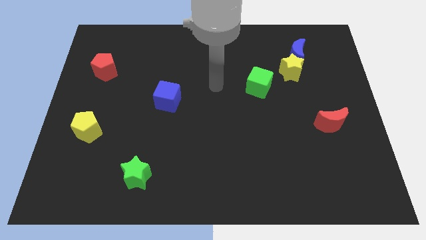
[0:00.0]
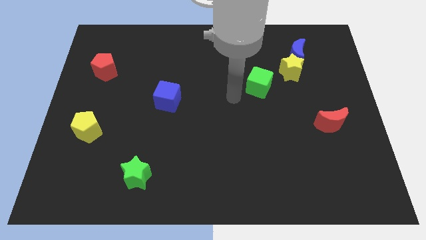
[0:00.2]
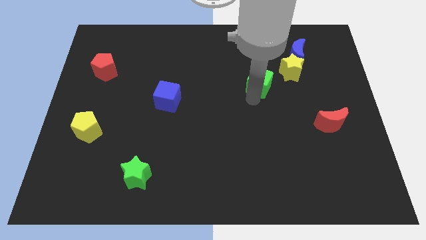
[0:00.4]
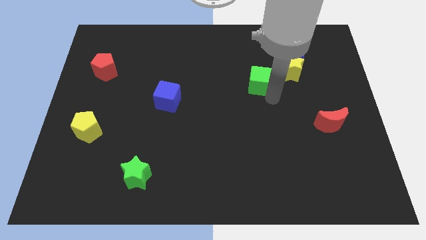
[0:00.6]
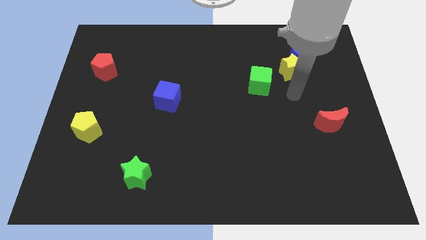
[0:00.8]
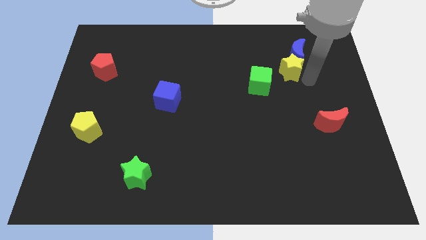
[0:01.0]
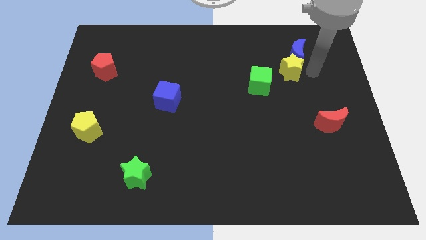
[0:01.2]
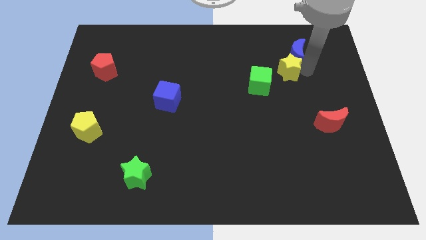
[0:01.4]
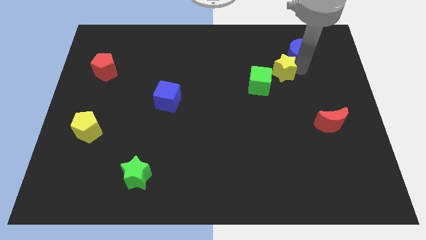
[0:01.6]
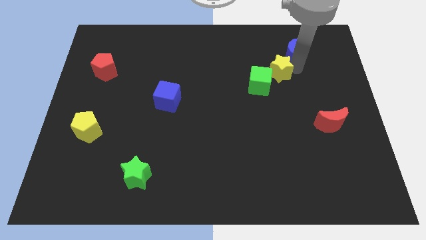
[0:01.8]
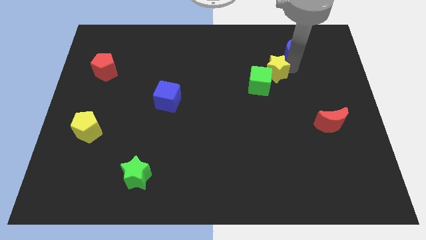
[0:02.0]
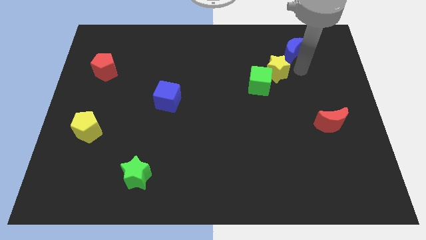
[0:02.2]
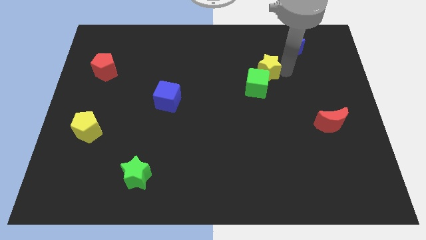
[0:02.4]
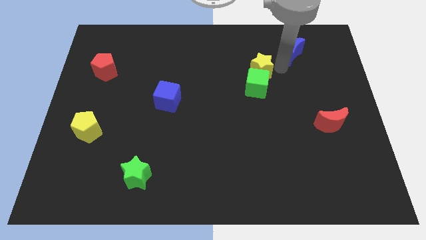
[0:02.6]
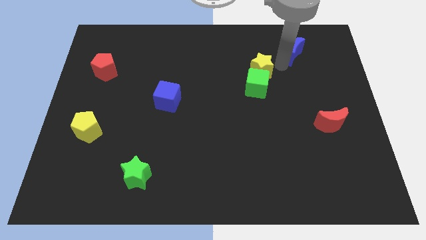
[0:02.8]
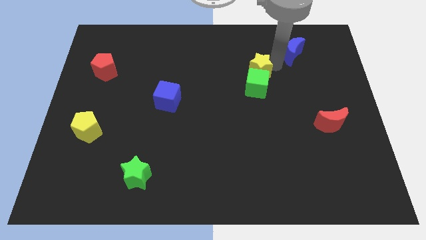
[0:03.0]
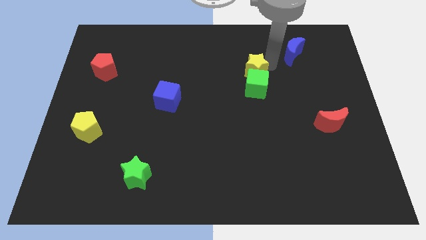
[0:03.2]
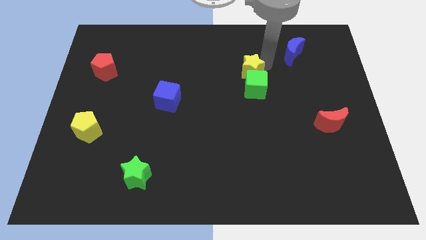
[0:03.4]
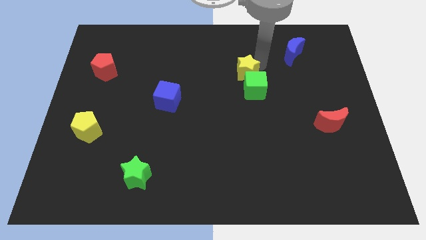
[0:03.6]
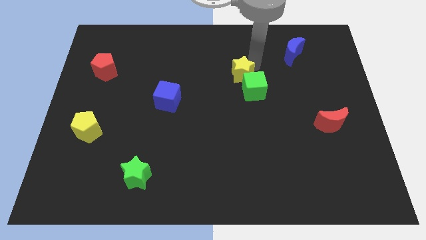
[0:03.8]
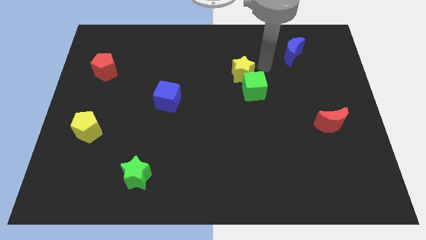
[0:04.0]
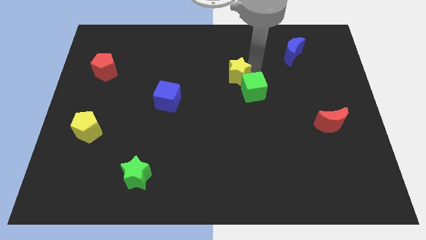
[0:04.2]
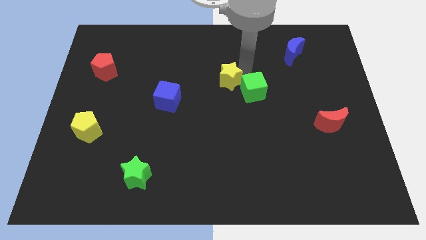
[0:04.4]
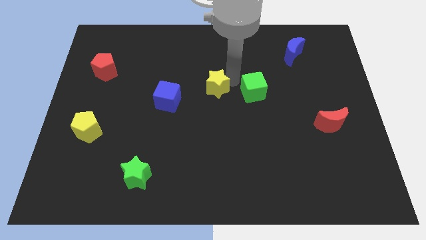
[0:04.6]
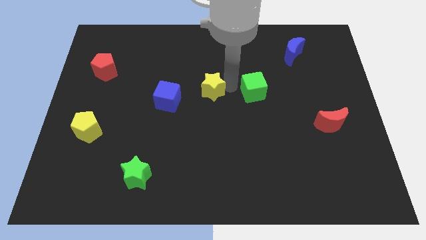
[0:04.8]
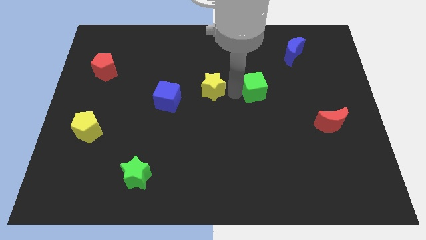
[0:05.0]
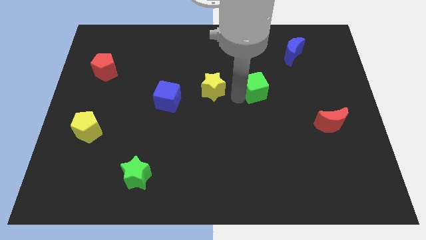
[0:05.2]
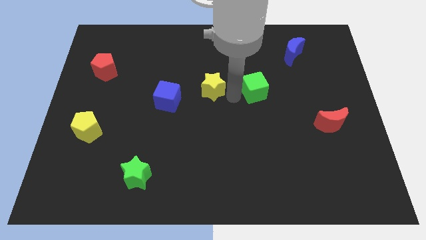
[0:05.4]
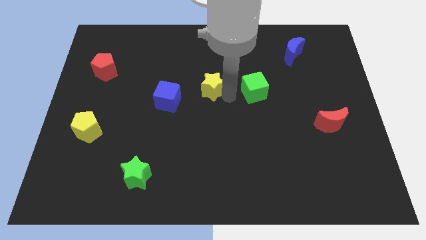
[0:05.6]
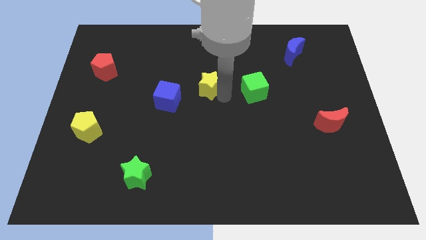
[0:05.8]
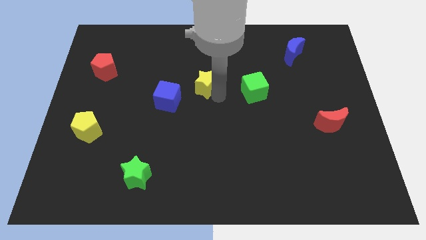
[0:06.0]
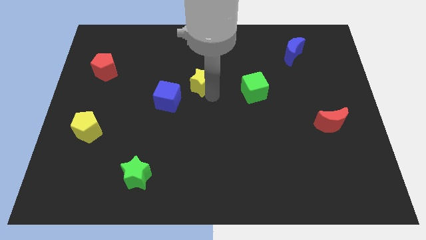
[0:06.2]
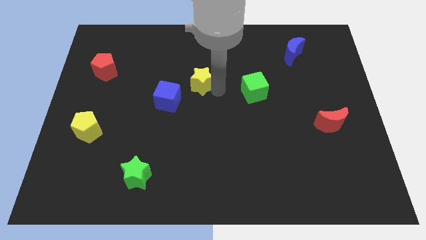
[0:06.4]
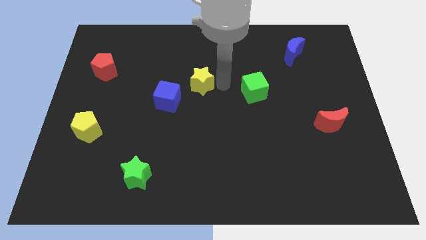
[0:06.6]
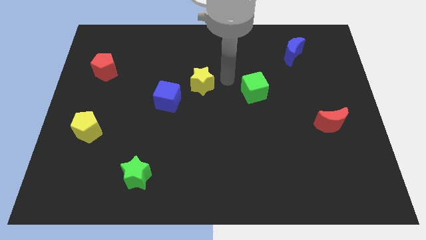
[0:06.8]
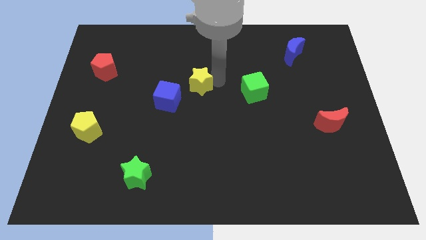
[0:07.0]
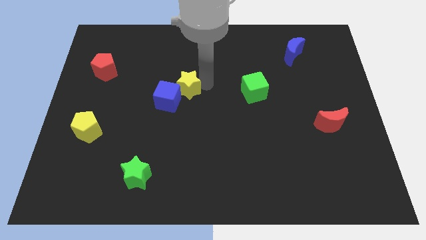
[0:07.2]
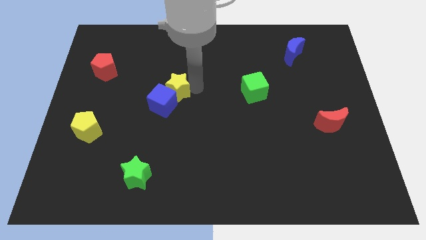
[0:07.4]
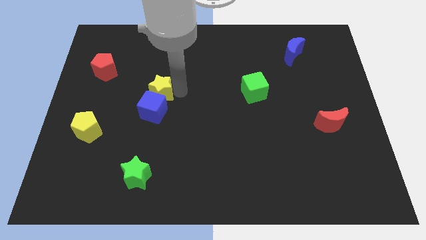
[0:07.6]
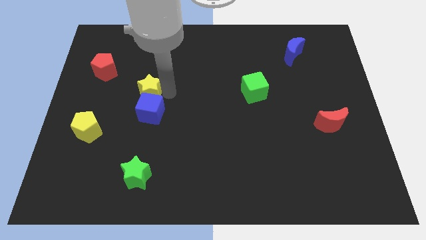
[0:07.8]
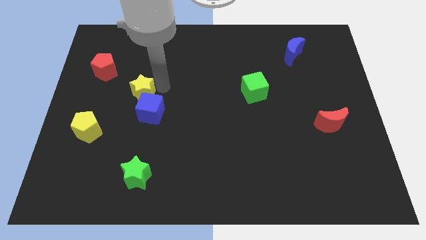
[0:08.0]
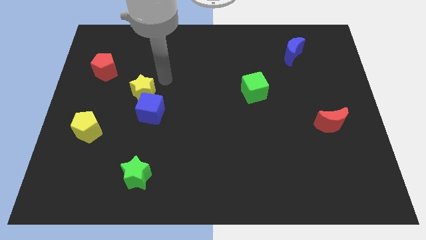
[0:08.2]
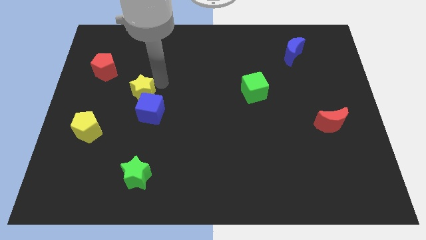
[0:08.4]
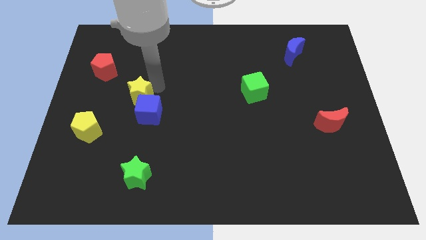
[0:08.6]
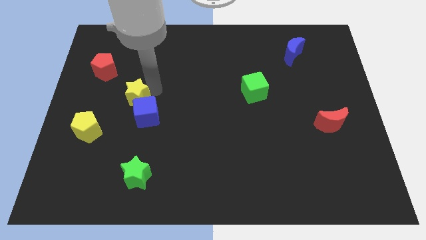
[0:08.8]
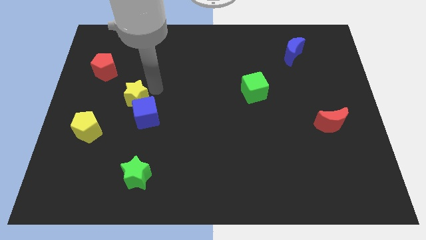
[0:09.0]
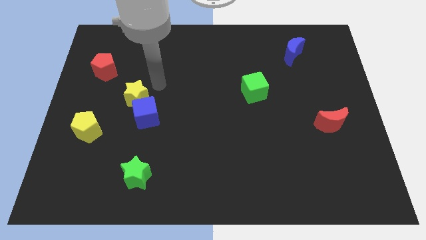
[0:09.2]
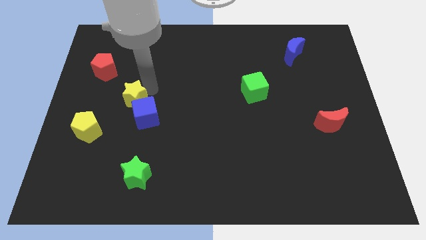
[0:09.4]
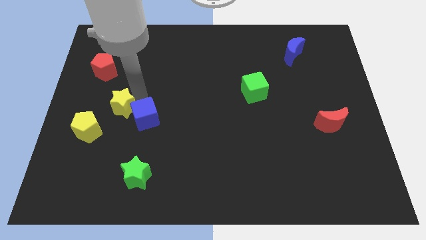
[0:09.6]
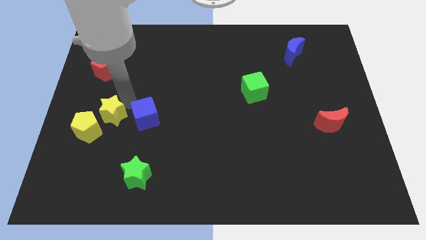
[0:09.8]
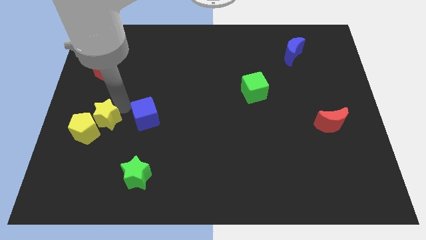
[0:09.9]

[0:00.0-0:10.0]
put the yellow star towards the yellow pentagon

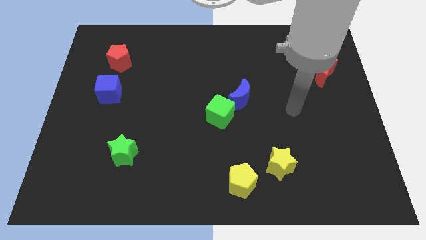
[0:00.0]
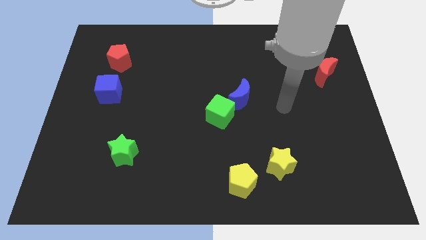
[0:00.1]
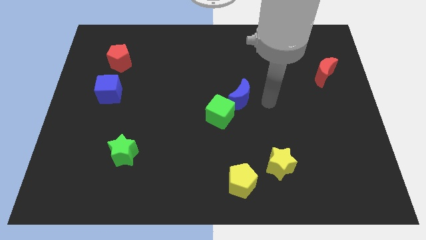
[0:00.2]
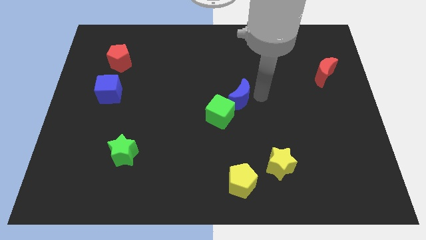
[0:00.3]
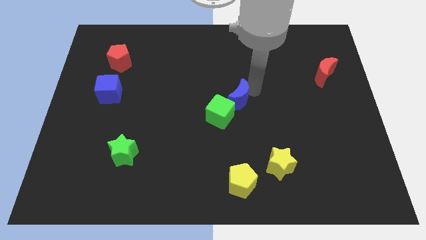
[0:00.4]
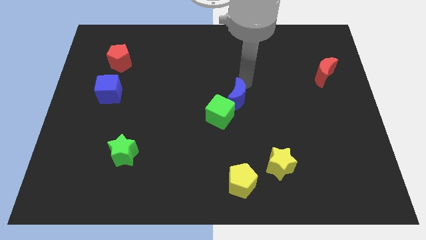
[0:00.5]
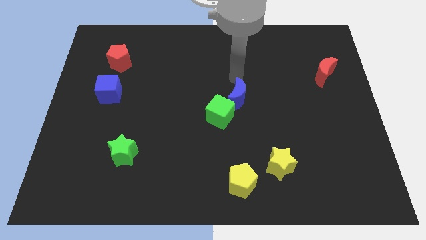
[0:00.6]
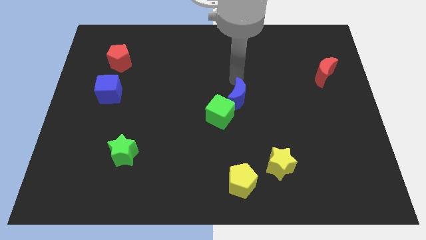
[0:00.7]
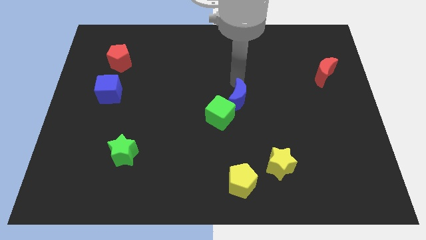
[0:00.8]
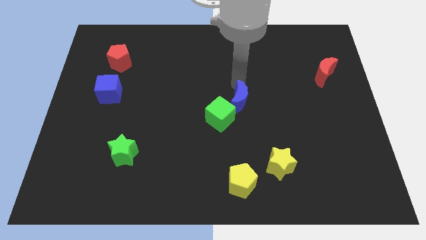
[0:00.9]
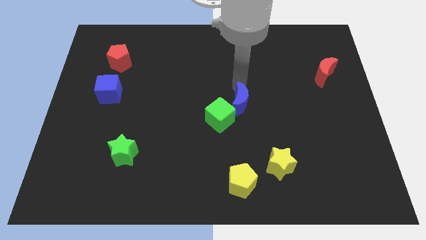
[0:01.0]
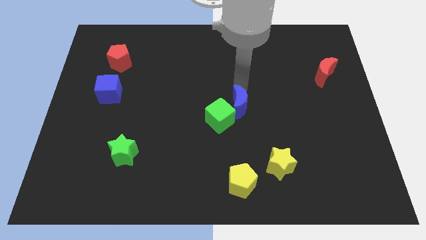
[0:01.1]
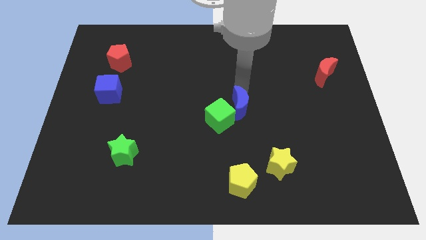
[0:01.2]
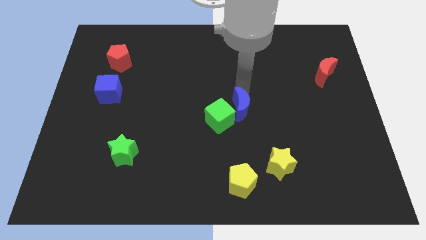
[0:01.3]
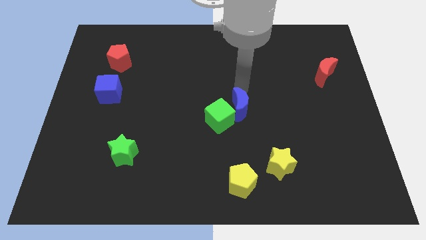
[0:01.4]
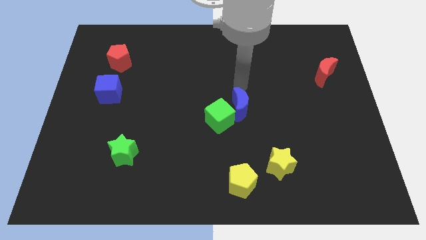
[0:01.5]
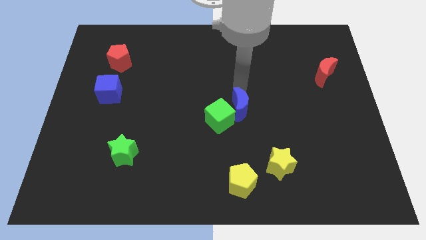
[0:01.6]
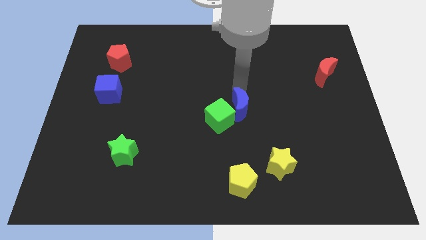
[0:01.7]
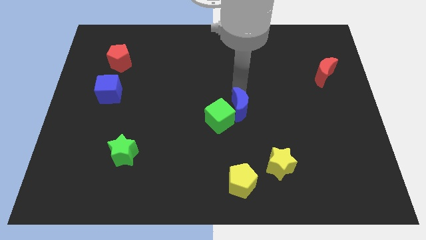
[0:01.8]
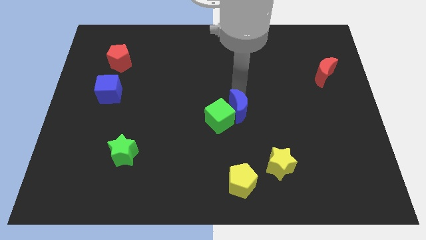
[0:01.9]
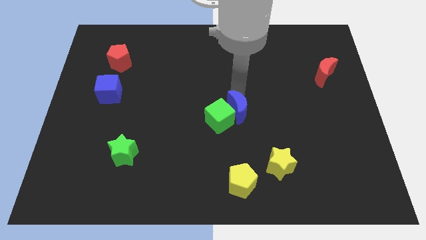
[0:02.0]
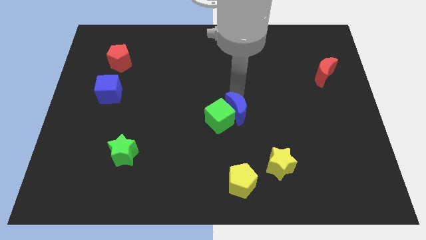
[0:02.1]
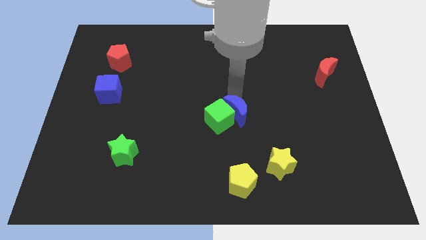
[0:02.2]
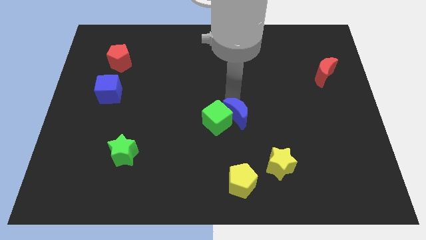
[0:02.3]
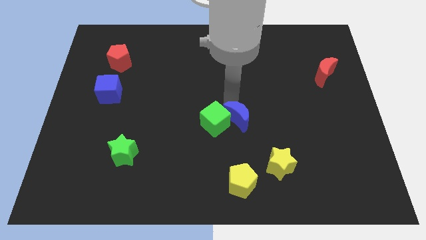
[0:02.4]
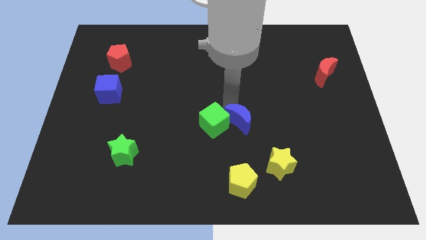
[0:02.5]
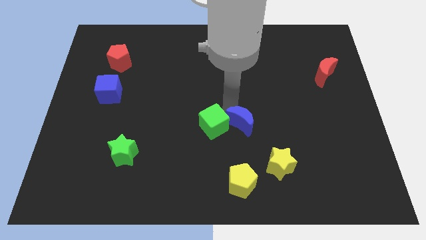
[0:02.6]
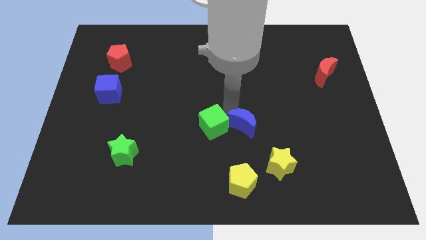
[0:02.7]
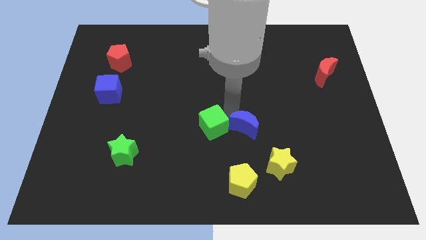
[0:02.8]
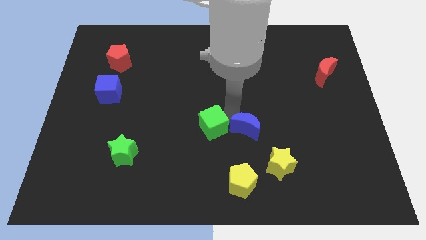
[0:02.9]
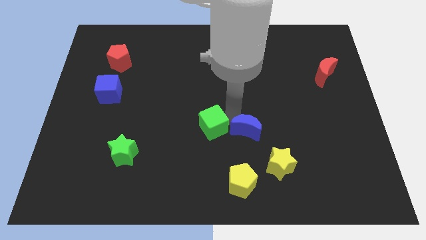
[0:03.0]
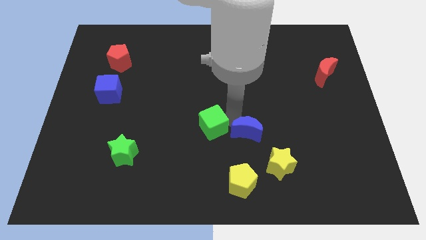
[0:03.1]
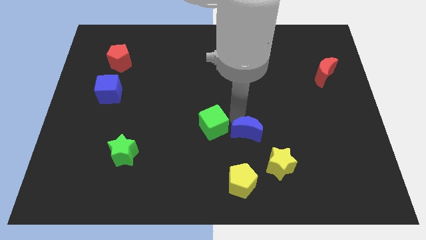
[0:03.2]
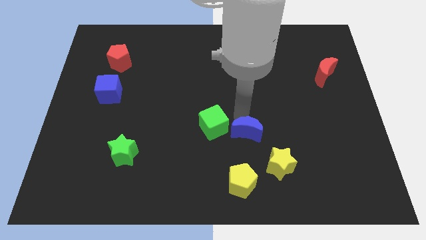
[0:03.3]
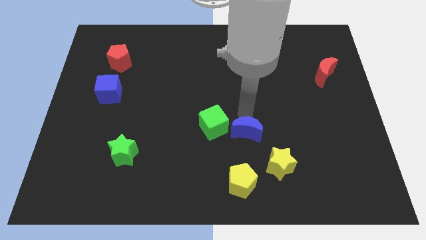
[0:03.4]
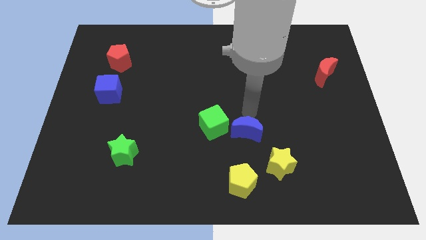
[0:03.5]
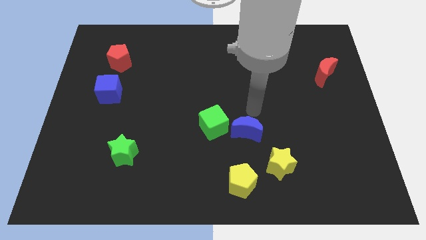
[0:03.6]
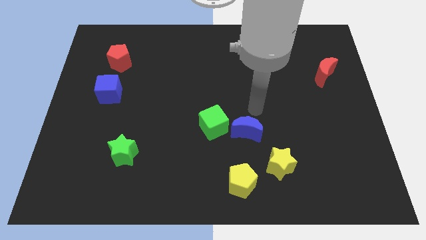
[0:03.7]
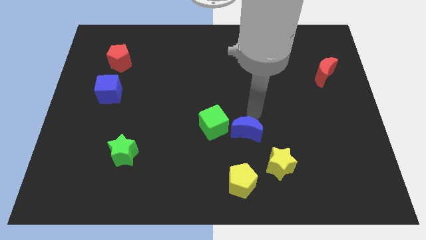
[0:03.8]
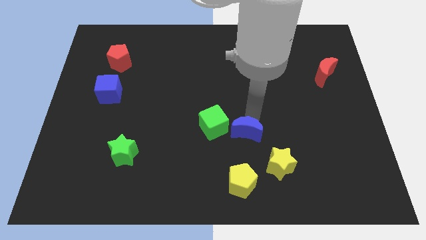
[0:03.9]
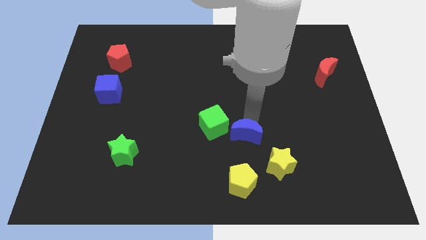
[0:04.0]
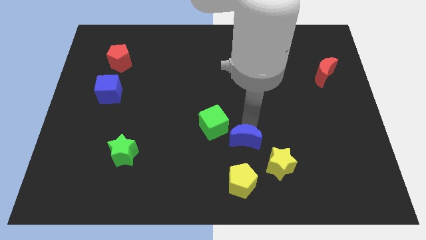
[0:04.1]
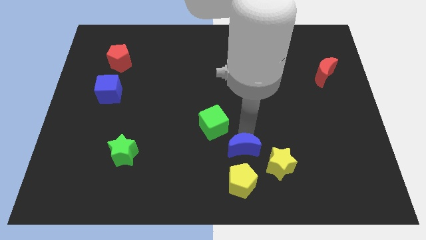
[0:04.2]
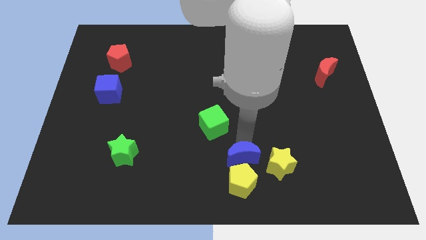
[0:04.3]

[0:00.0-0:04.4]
slide the blue moon to the yellow pentagon
